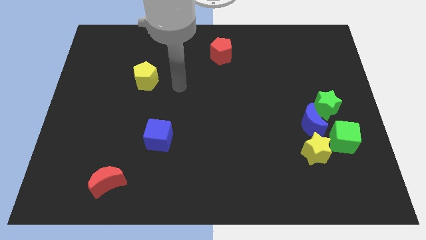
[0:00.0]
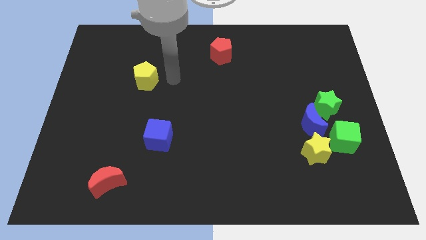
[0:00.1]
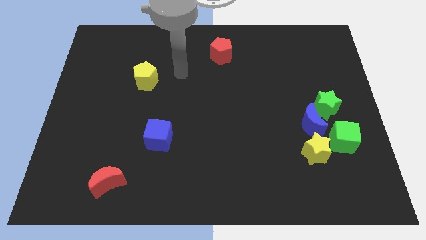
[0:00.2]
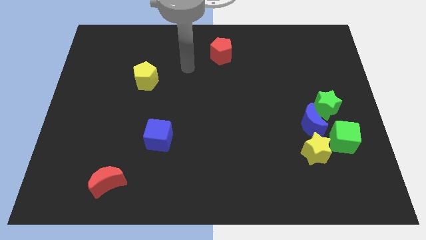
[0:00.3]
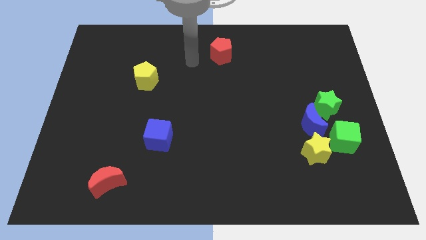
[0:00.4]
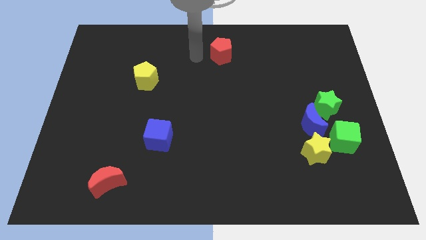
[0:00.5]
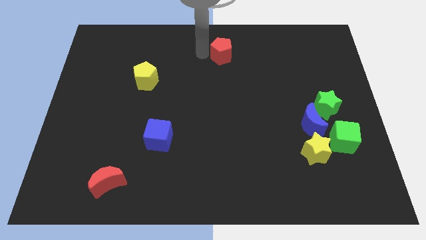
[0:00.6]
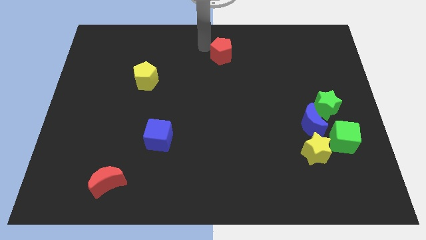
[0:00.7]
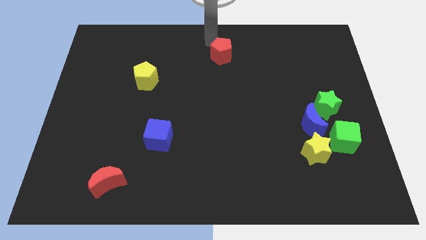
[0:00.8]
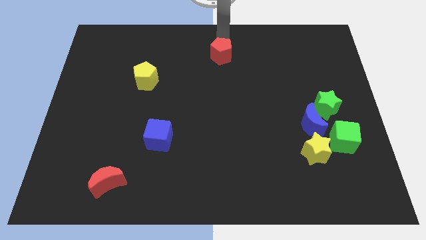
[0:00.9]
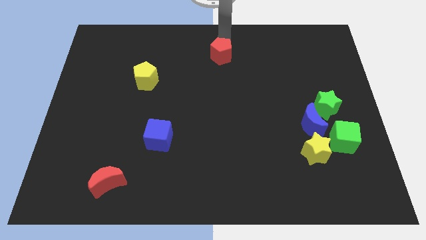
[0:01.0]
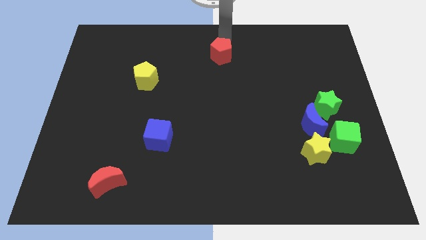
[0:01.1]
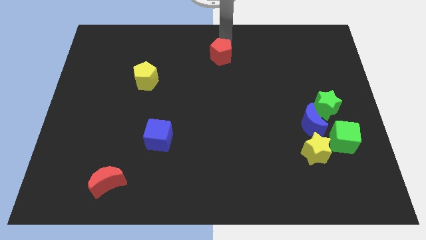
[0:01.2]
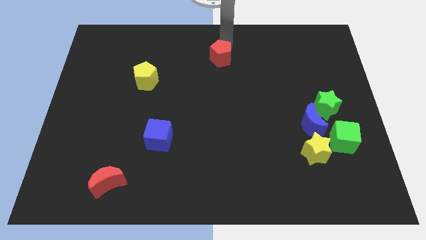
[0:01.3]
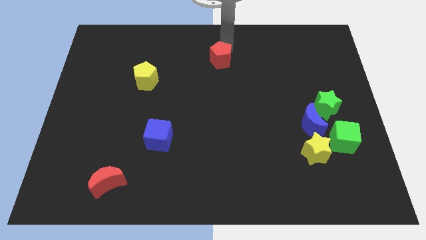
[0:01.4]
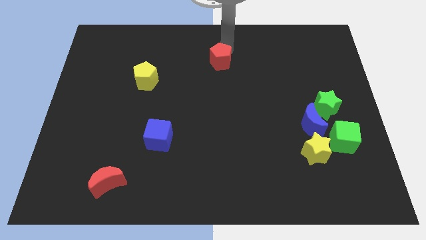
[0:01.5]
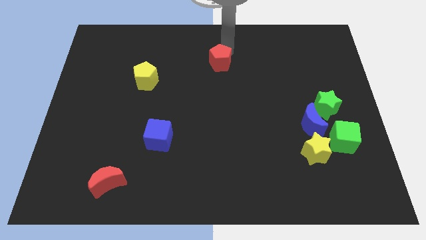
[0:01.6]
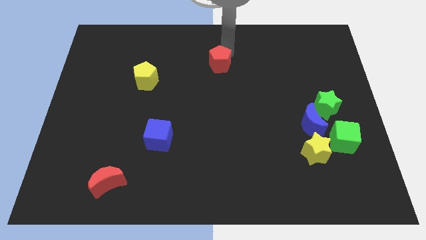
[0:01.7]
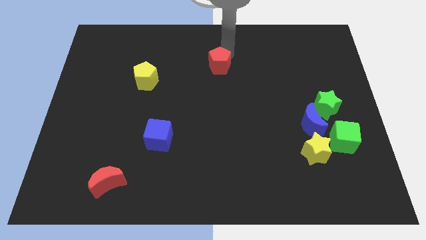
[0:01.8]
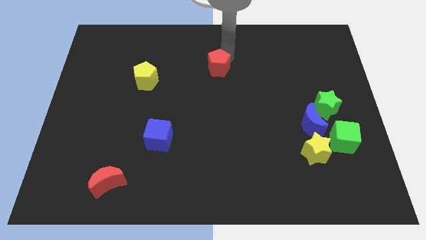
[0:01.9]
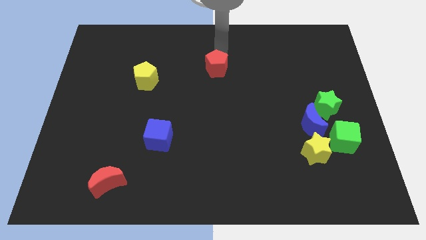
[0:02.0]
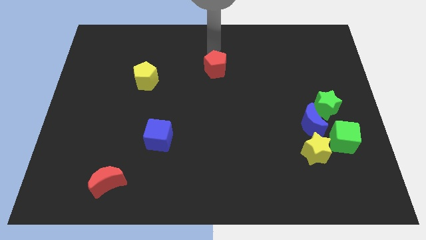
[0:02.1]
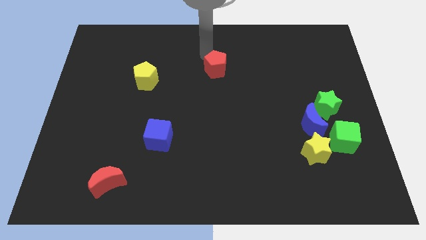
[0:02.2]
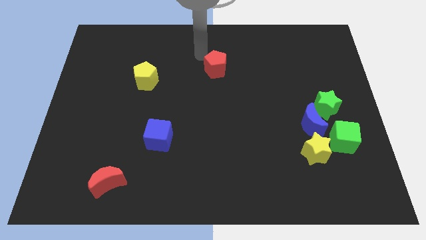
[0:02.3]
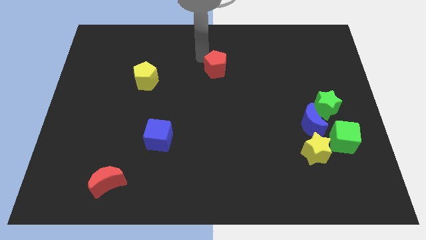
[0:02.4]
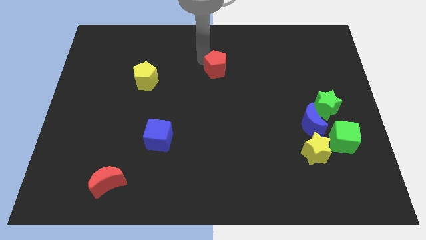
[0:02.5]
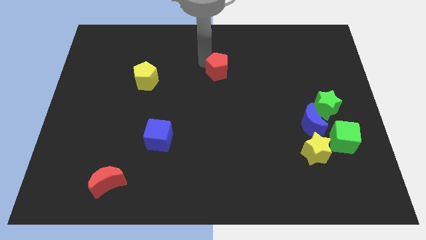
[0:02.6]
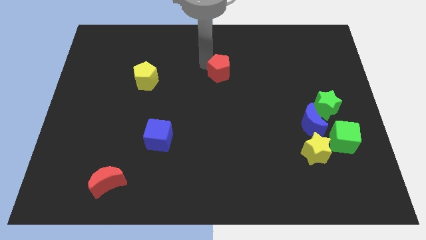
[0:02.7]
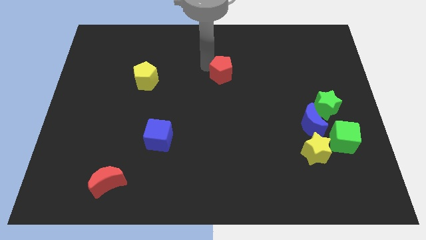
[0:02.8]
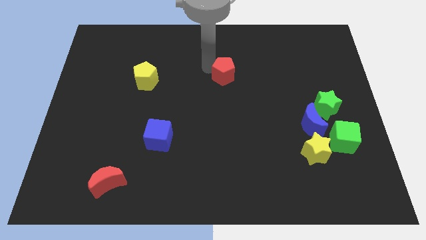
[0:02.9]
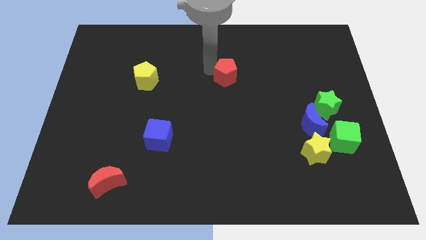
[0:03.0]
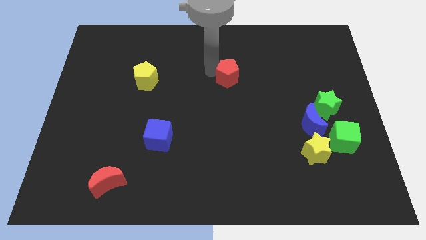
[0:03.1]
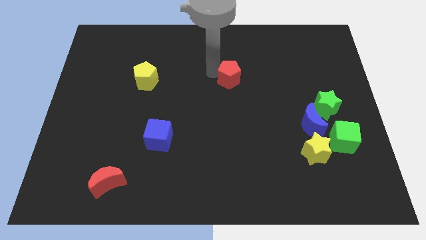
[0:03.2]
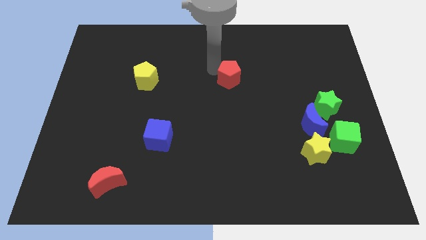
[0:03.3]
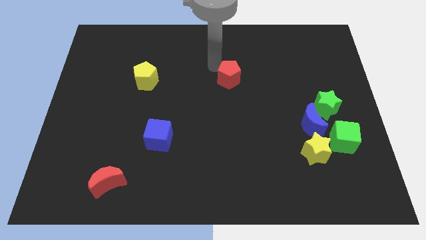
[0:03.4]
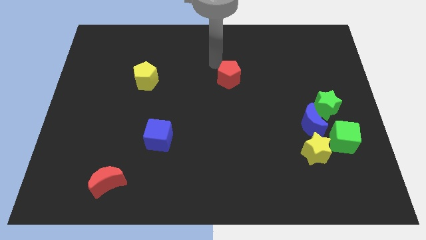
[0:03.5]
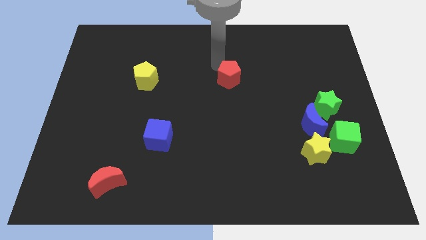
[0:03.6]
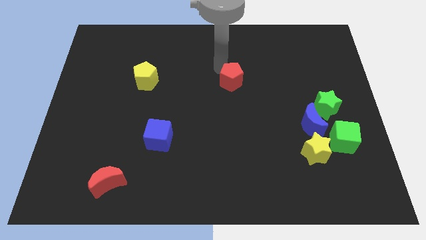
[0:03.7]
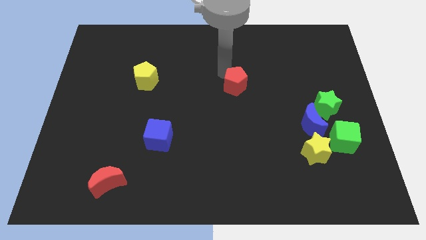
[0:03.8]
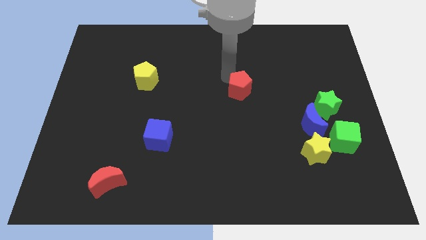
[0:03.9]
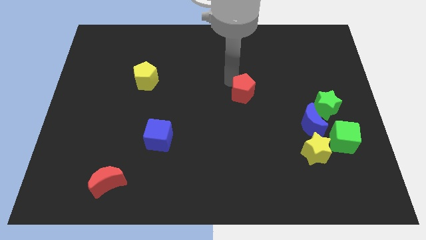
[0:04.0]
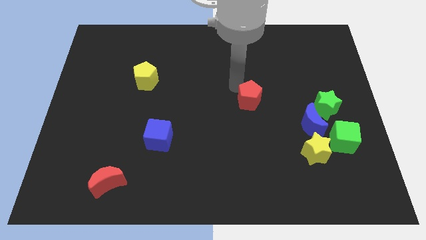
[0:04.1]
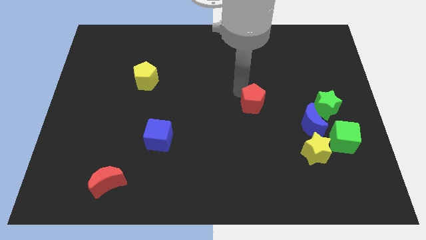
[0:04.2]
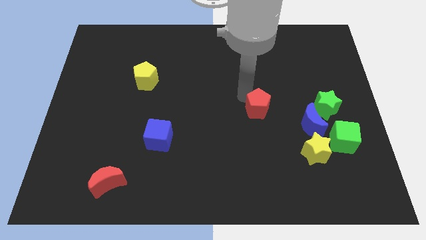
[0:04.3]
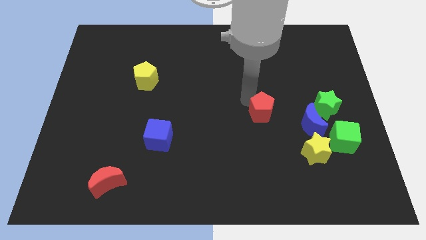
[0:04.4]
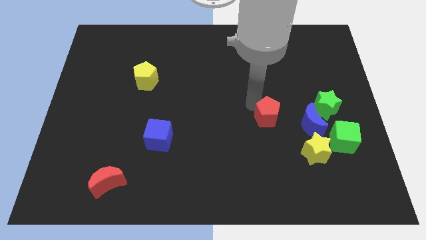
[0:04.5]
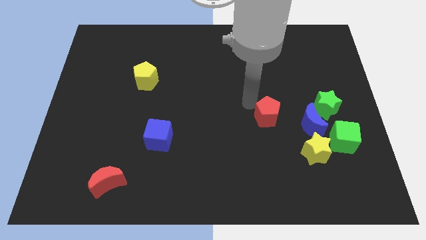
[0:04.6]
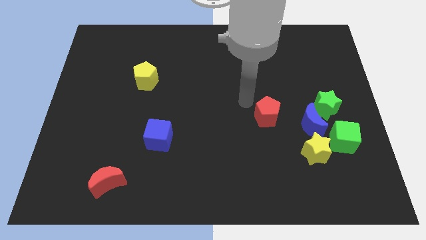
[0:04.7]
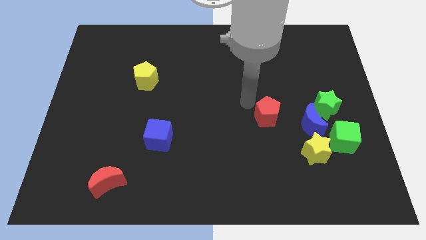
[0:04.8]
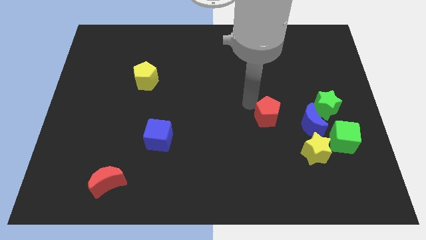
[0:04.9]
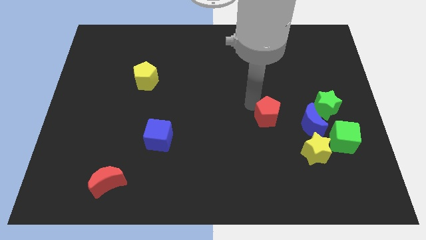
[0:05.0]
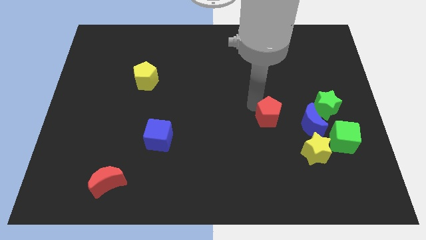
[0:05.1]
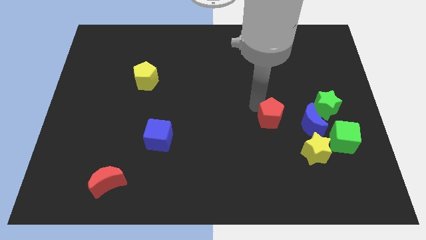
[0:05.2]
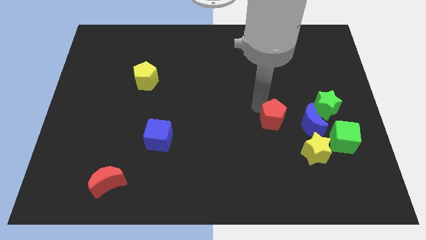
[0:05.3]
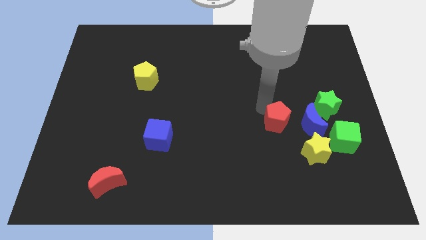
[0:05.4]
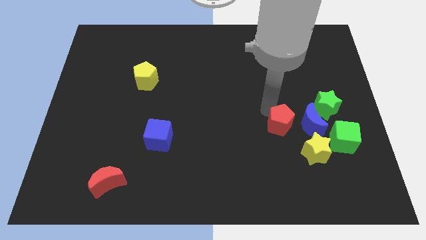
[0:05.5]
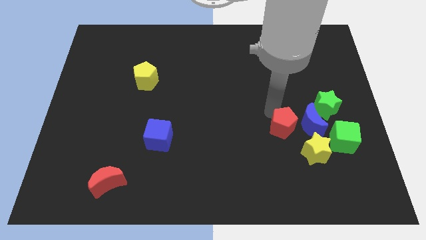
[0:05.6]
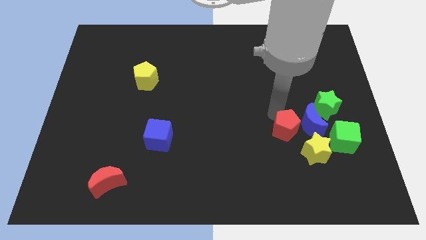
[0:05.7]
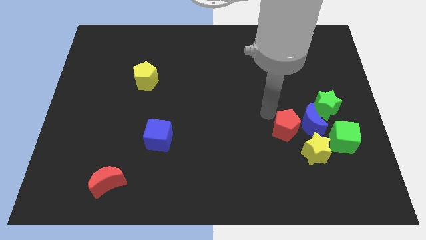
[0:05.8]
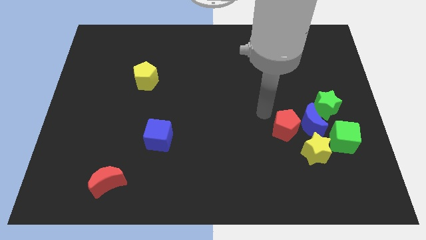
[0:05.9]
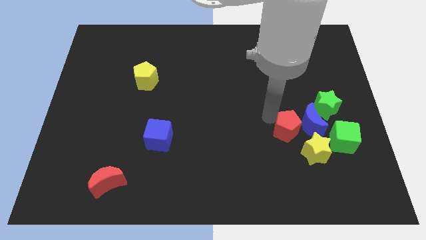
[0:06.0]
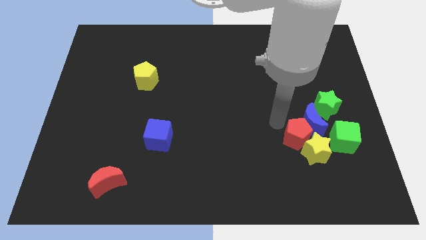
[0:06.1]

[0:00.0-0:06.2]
slide the red pentagon towards the yellow star
